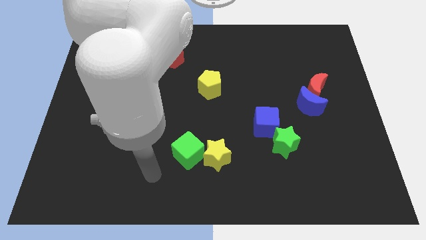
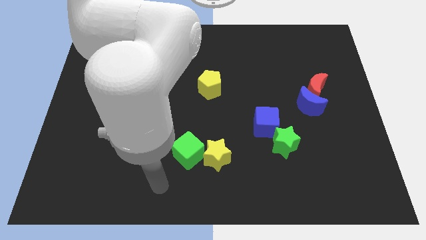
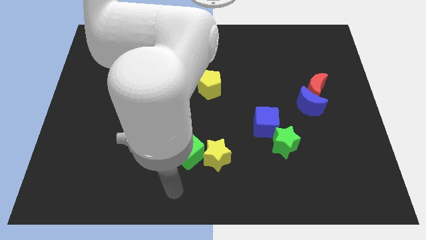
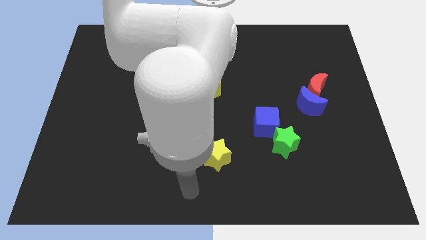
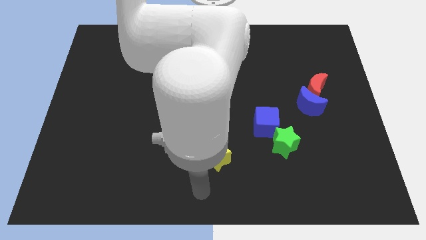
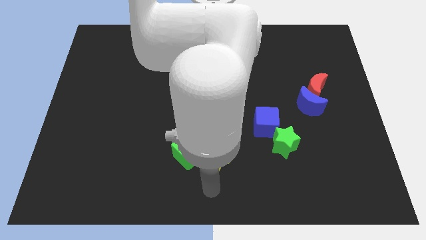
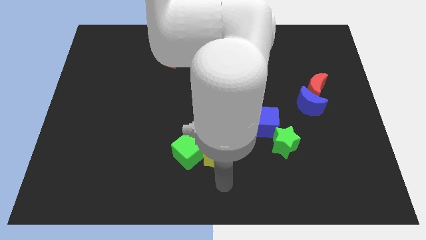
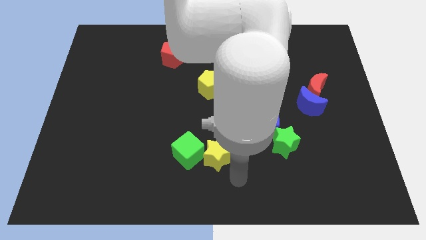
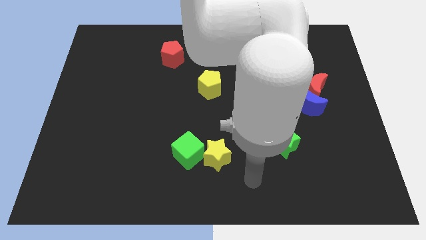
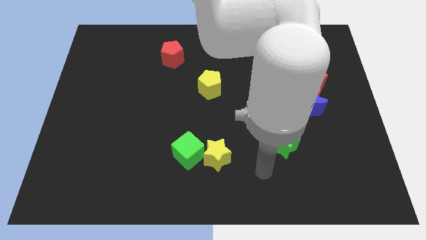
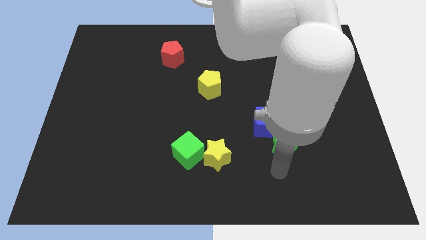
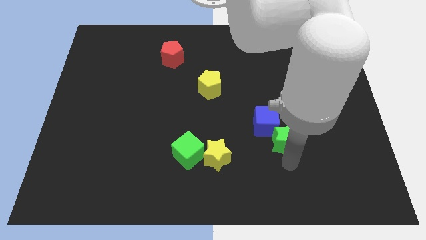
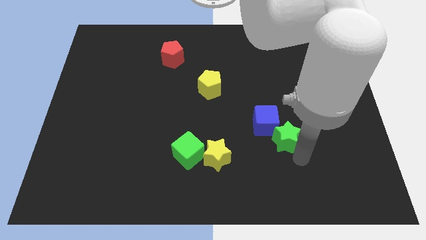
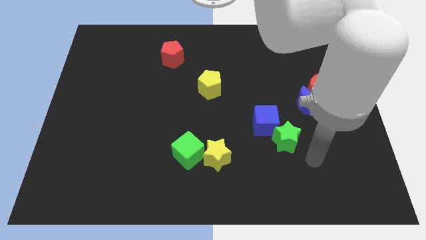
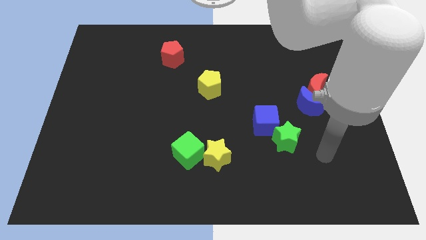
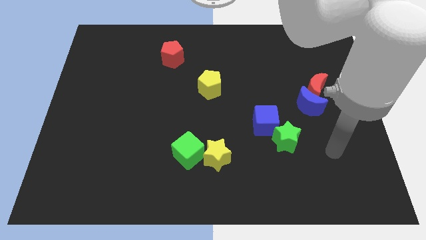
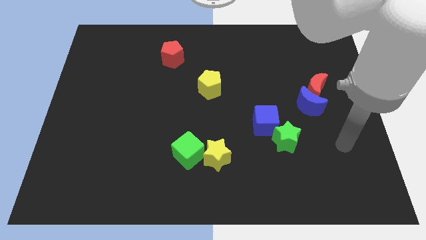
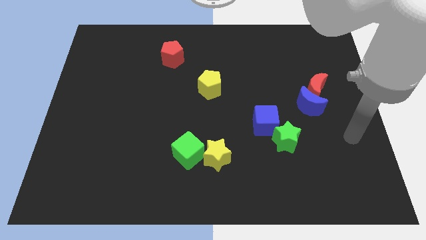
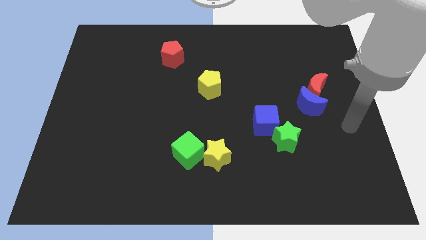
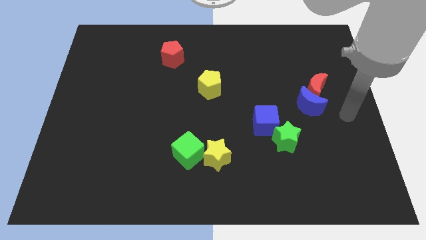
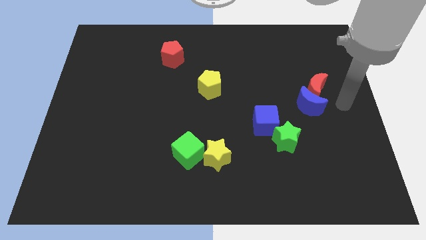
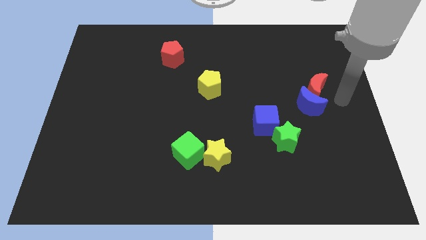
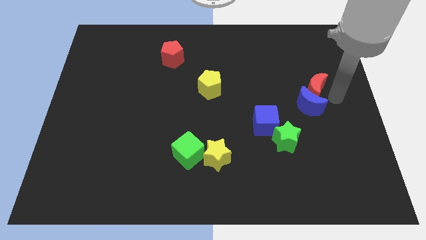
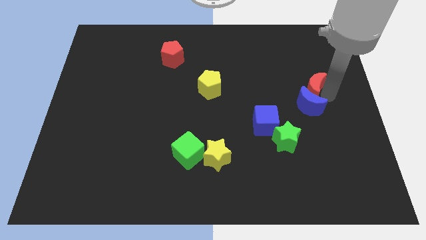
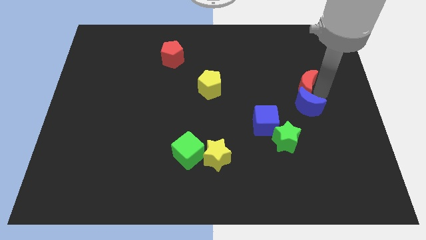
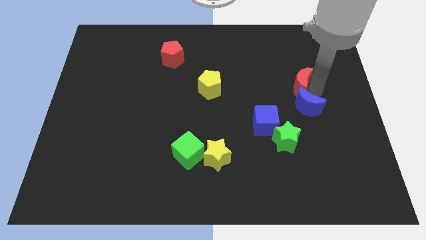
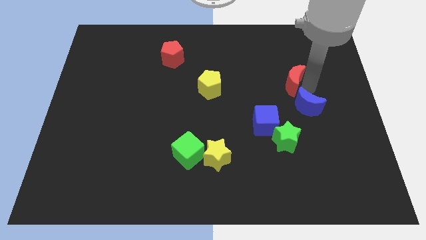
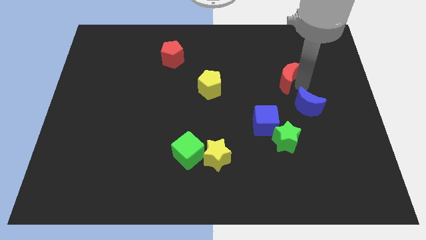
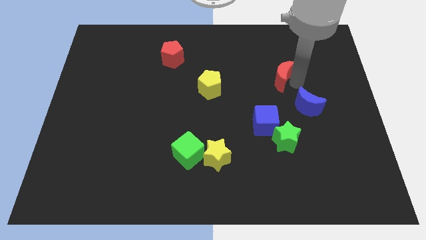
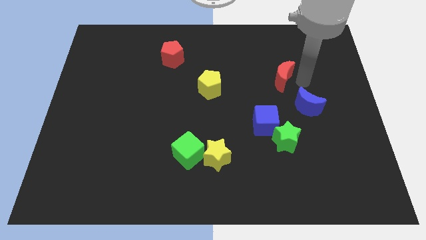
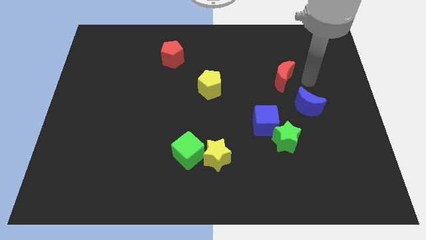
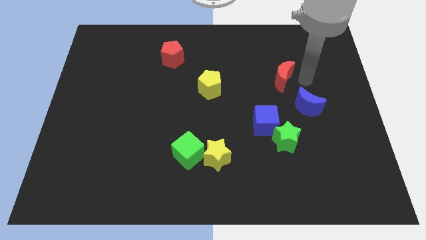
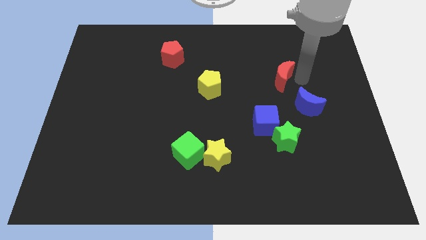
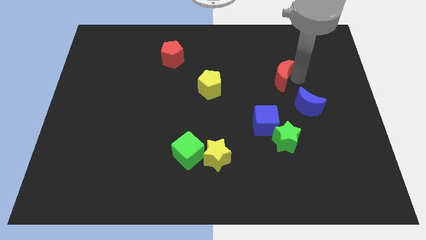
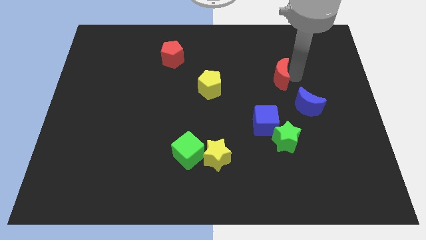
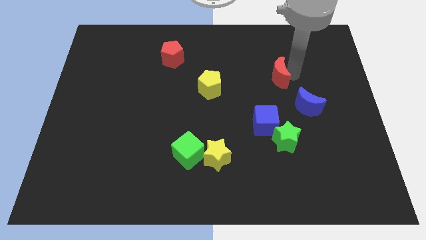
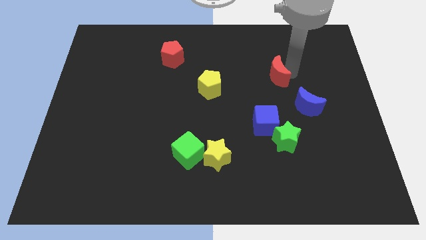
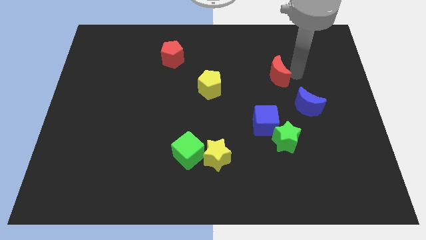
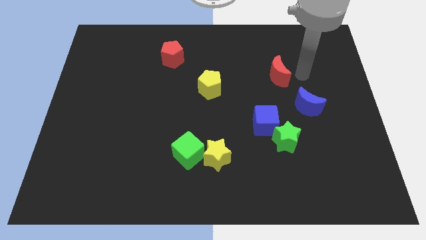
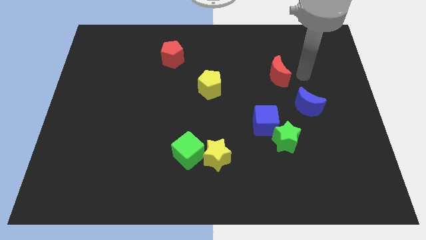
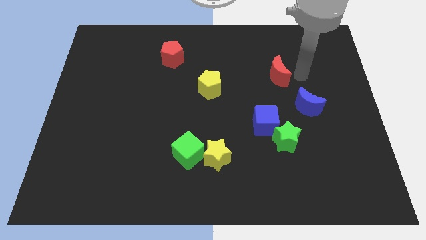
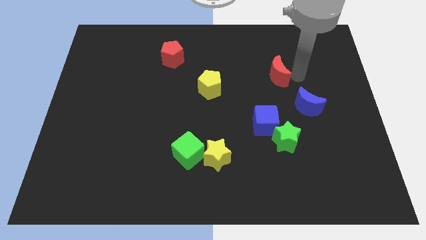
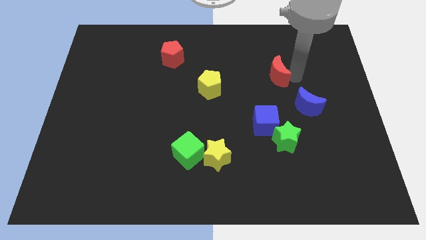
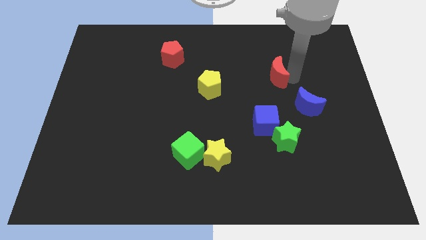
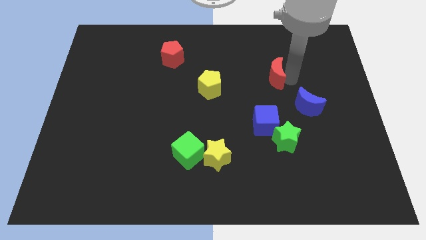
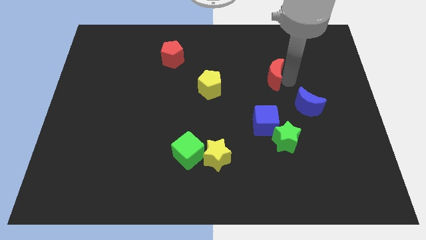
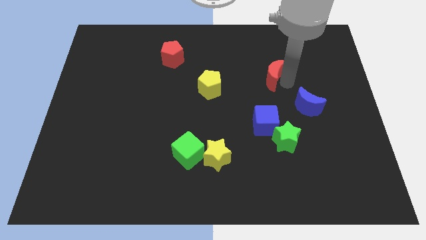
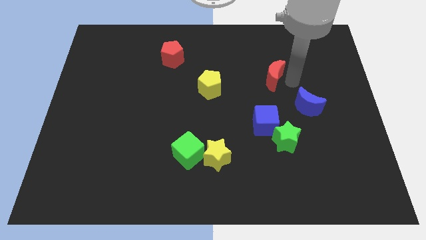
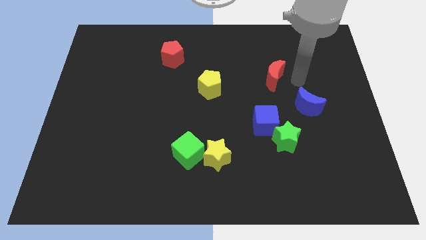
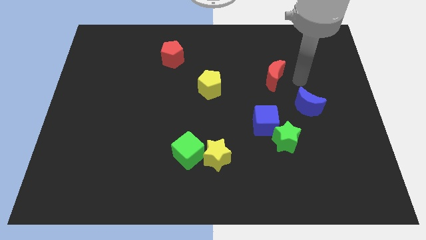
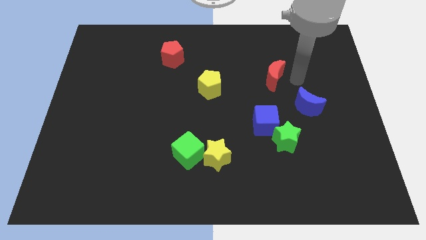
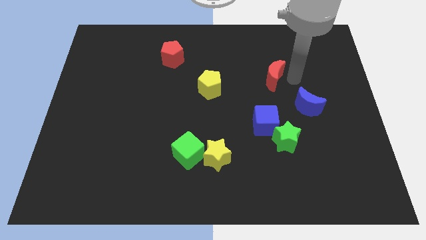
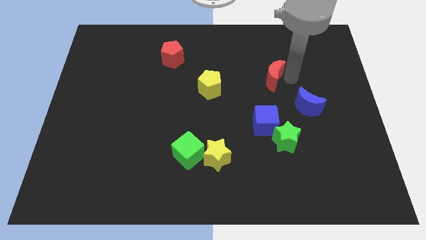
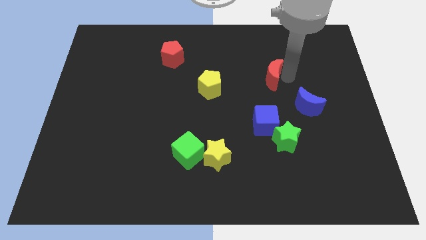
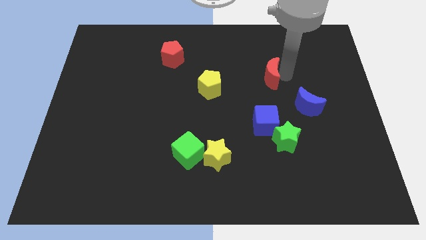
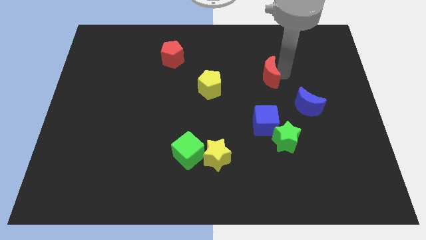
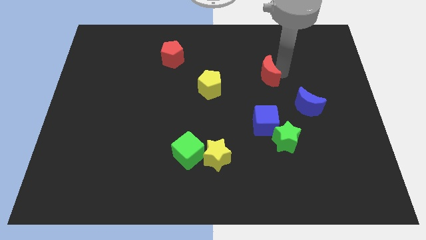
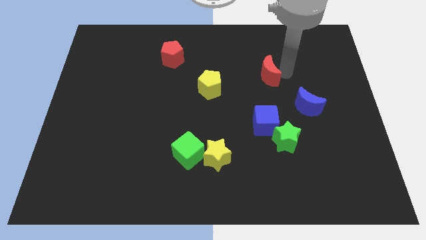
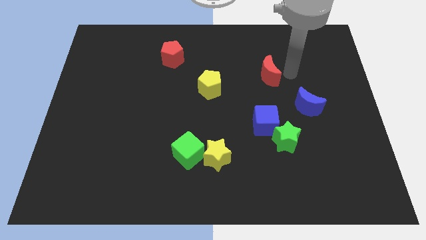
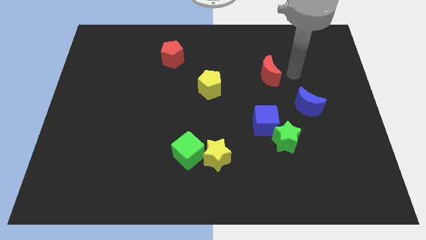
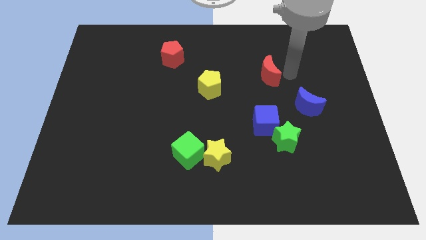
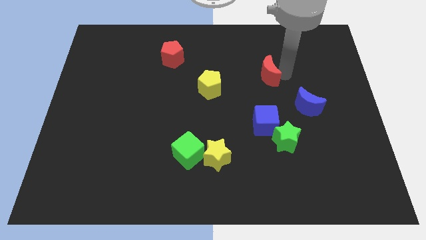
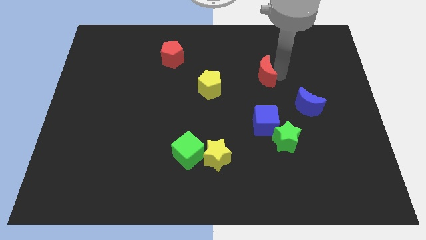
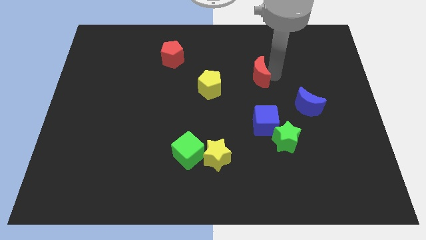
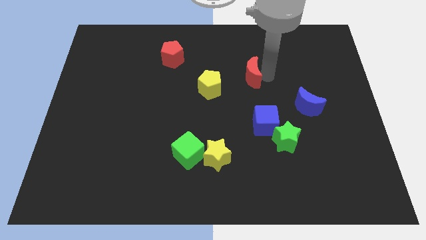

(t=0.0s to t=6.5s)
put the red moon to the top right of the yellow pentagon

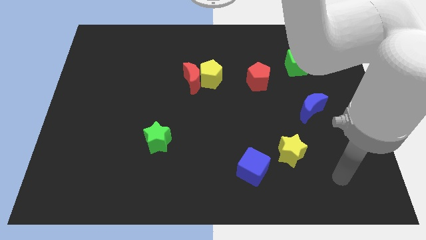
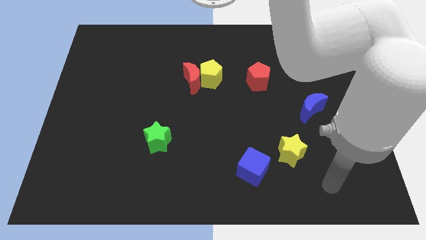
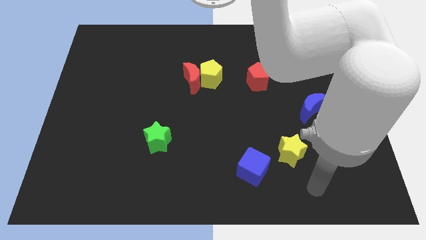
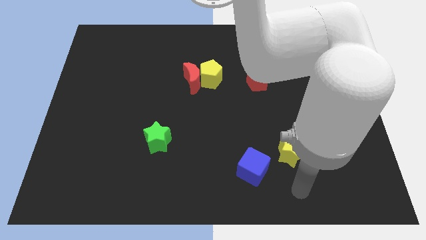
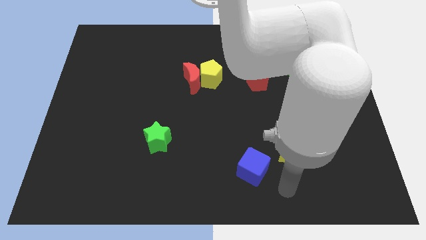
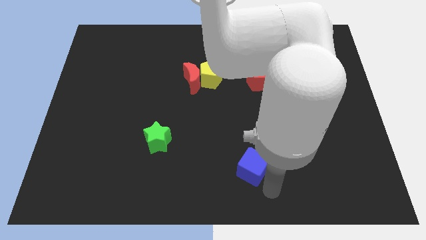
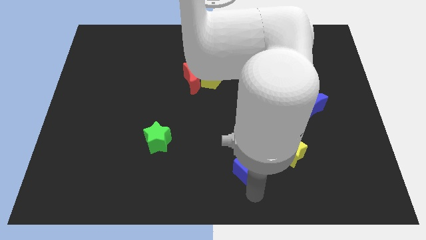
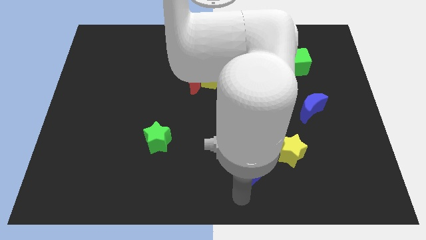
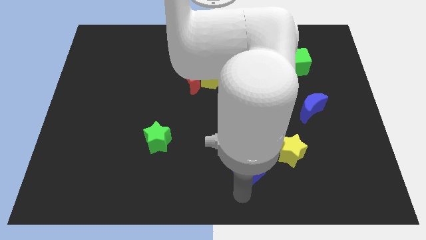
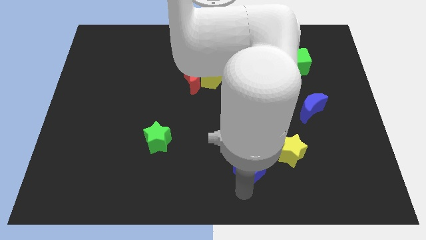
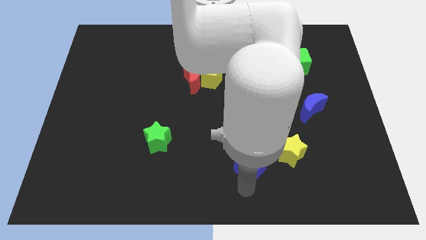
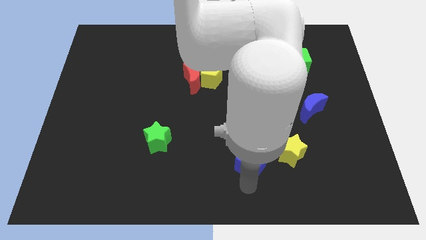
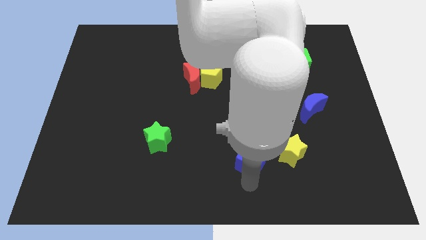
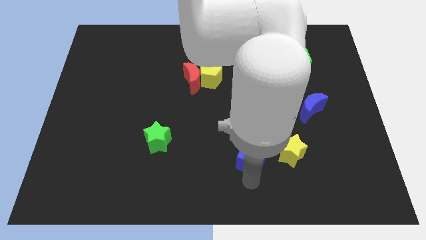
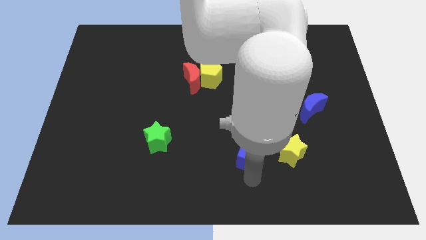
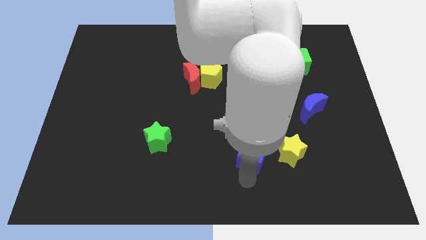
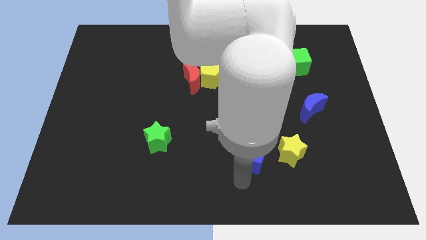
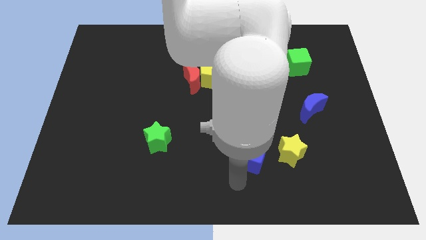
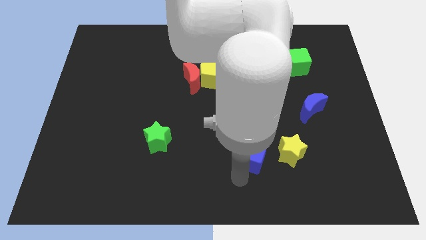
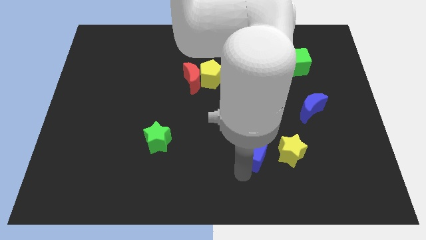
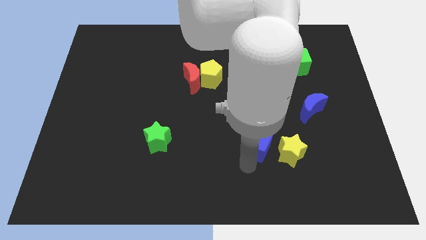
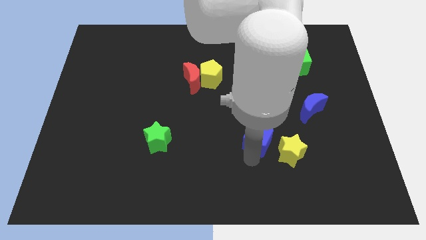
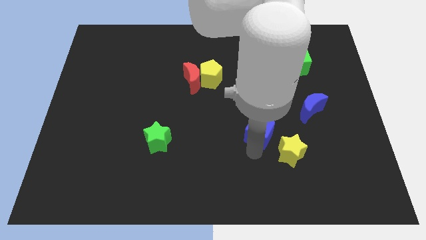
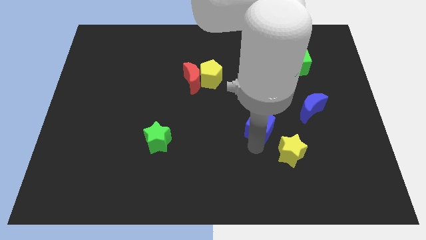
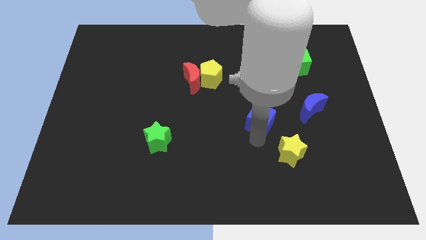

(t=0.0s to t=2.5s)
push the blue cube left of the blue moon
